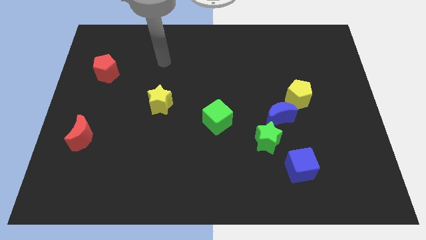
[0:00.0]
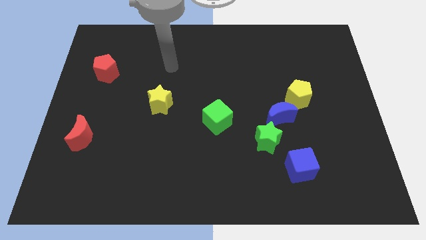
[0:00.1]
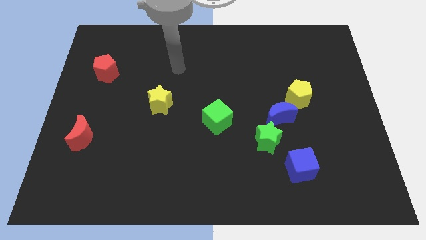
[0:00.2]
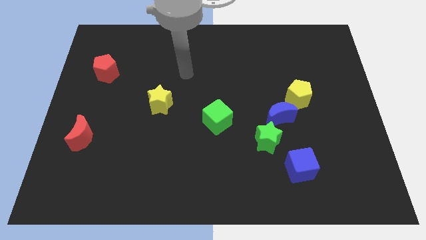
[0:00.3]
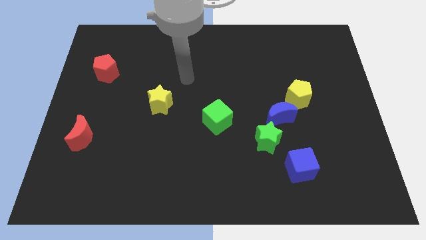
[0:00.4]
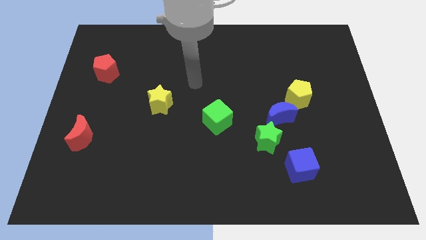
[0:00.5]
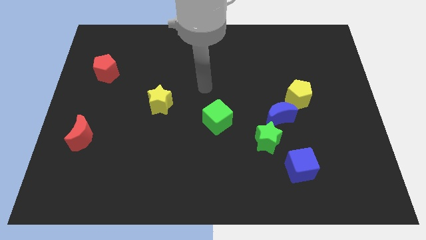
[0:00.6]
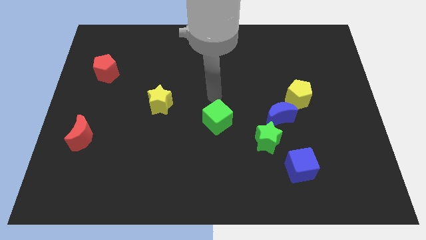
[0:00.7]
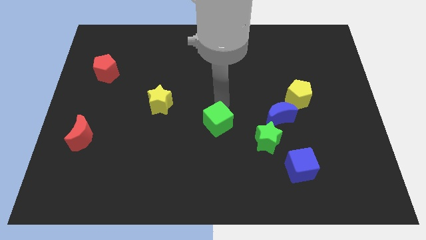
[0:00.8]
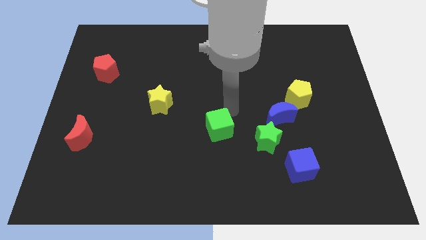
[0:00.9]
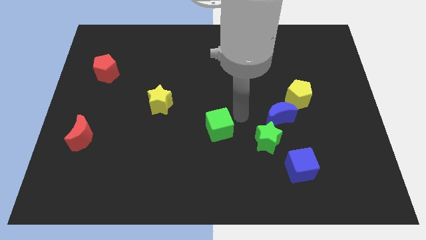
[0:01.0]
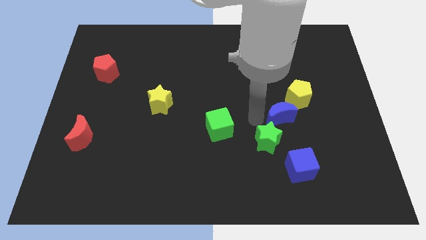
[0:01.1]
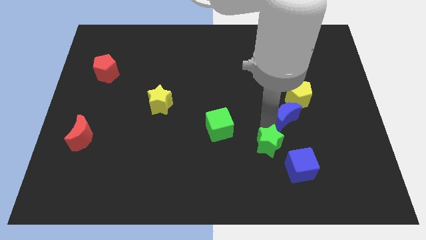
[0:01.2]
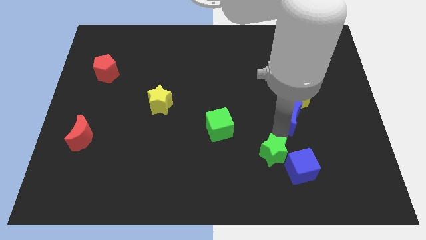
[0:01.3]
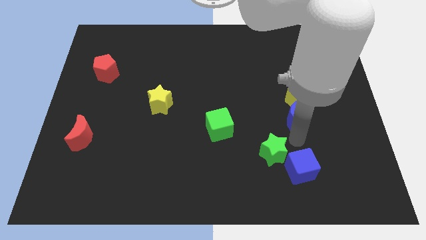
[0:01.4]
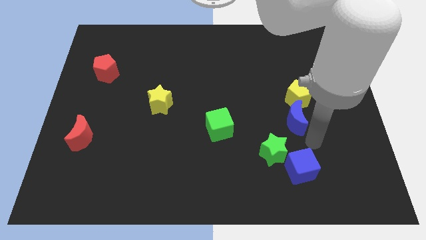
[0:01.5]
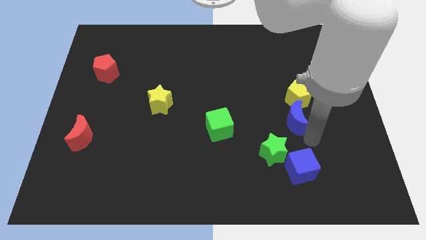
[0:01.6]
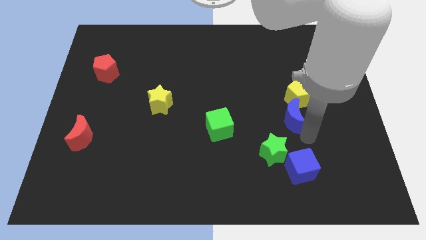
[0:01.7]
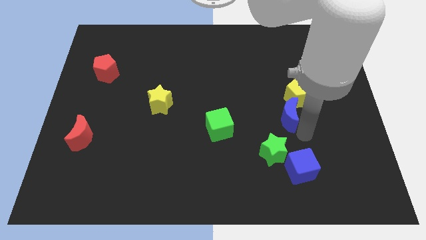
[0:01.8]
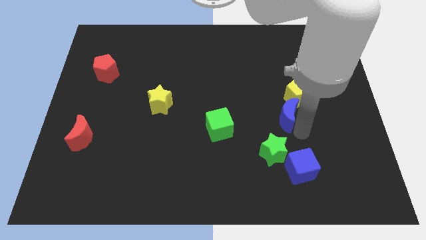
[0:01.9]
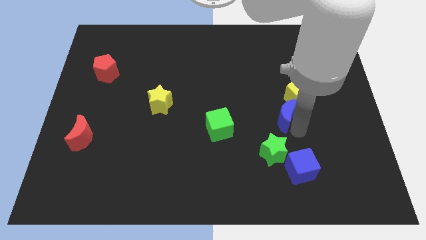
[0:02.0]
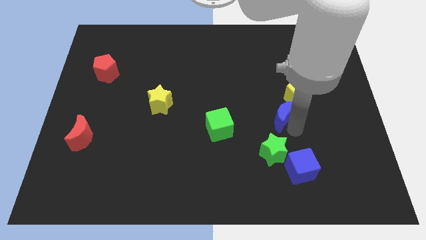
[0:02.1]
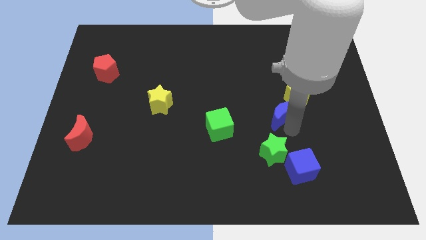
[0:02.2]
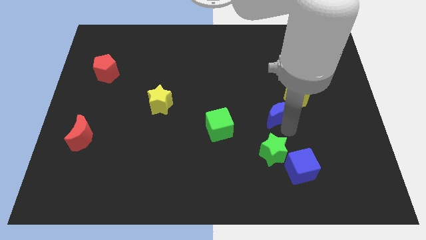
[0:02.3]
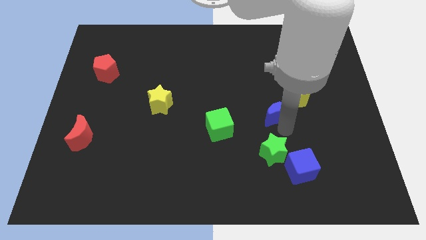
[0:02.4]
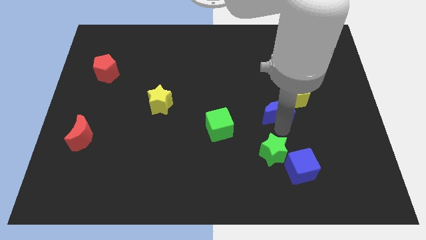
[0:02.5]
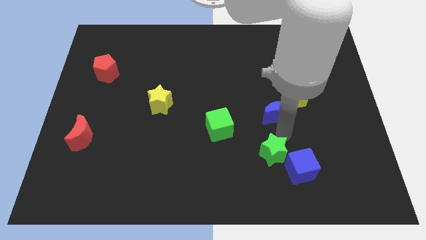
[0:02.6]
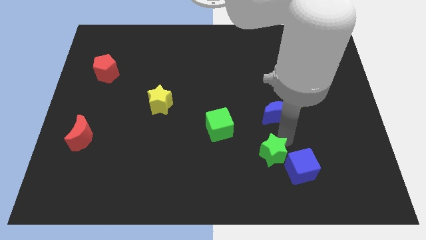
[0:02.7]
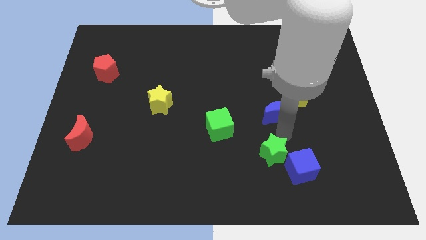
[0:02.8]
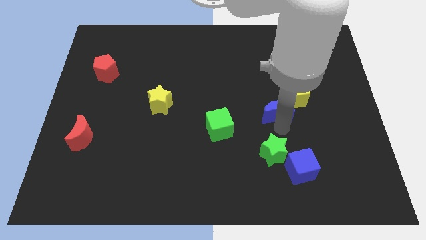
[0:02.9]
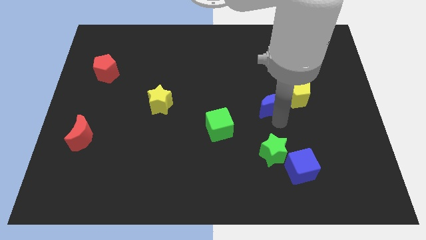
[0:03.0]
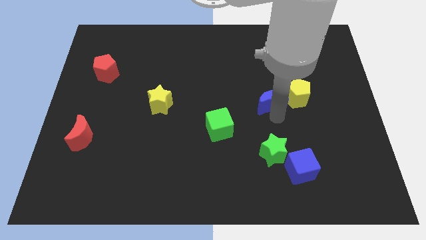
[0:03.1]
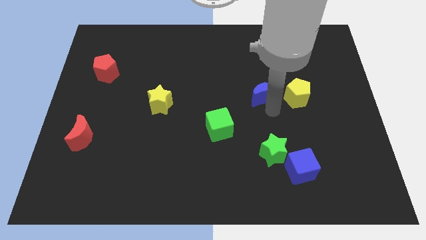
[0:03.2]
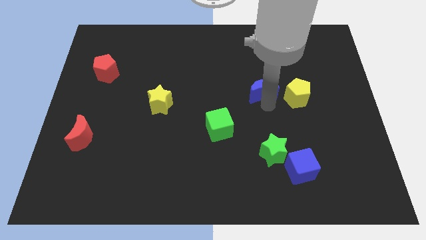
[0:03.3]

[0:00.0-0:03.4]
slide the blue moon upwards a bit

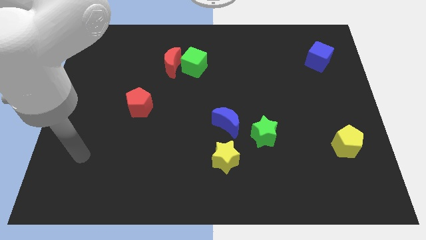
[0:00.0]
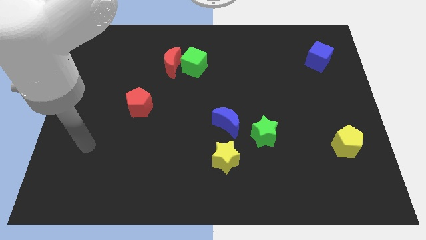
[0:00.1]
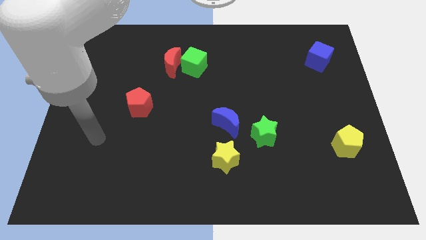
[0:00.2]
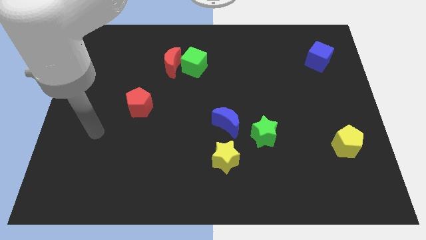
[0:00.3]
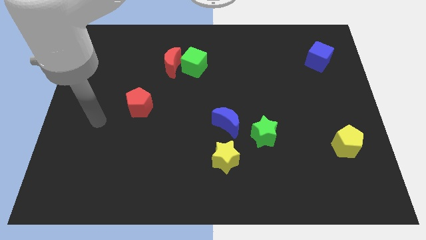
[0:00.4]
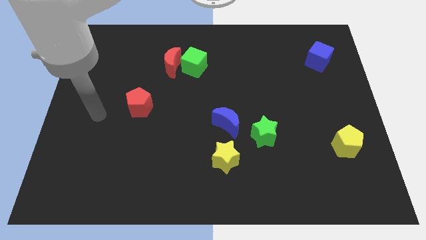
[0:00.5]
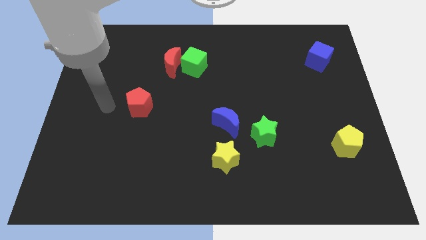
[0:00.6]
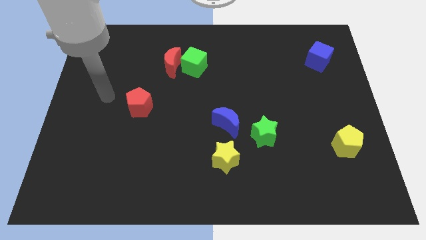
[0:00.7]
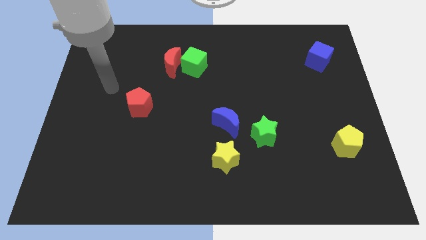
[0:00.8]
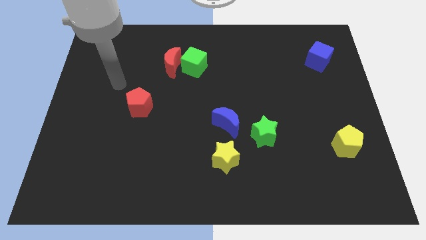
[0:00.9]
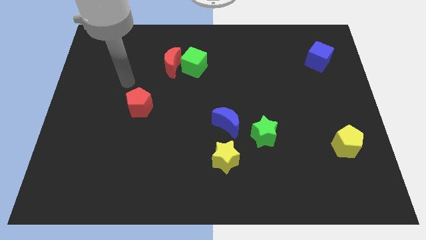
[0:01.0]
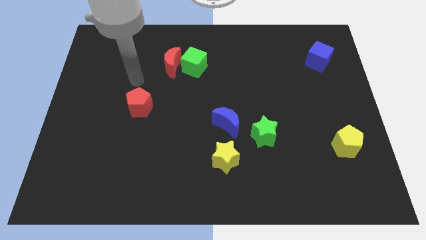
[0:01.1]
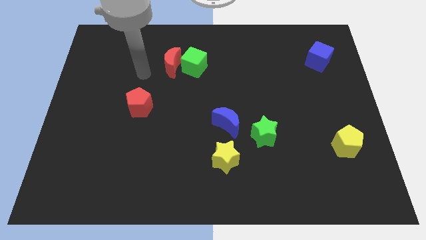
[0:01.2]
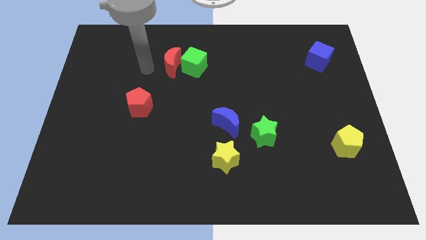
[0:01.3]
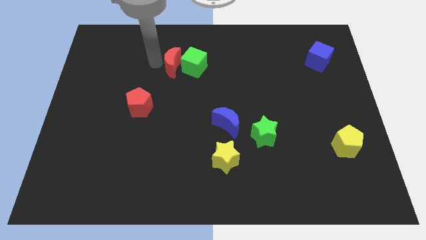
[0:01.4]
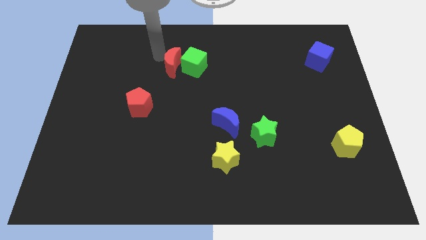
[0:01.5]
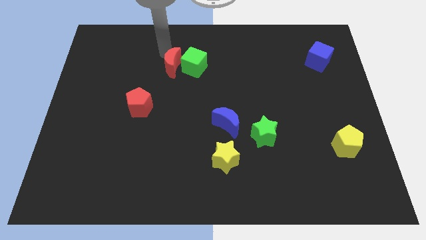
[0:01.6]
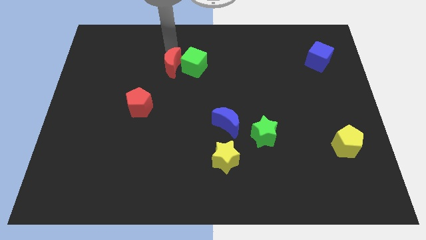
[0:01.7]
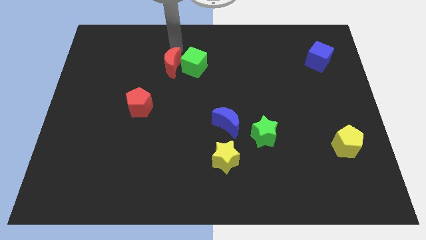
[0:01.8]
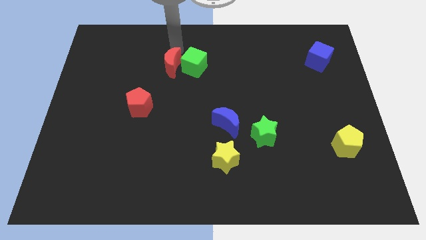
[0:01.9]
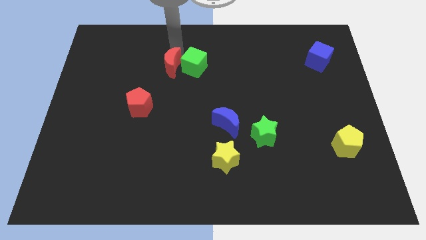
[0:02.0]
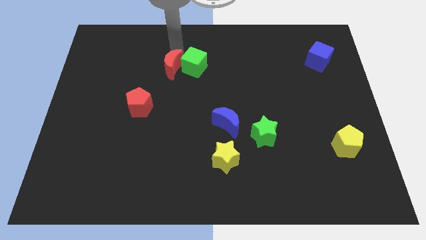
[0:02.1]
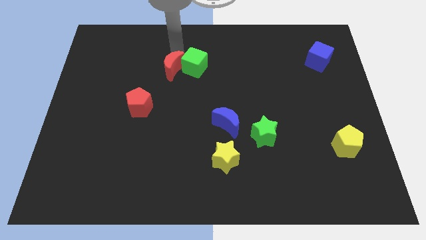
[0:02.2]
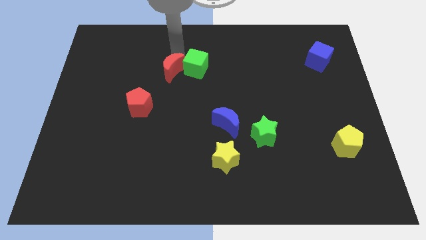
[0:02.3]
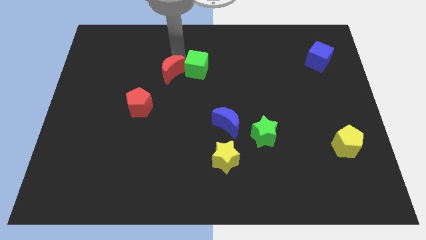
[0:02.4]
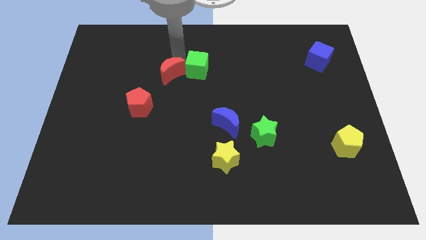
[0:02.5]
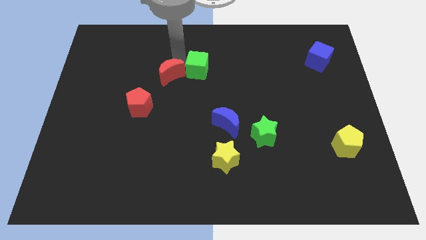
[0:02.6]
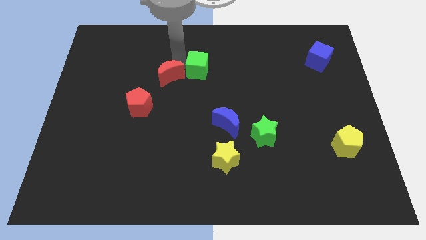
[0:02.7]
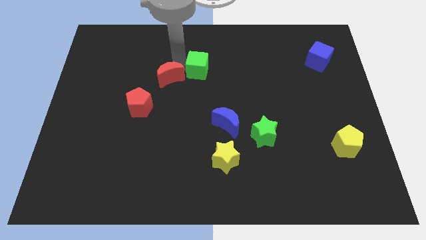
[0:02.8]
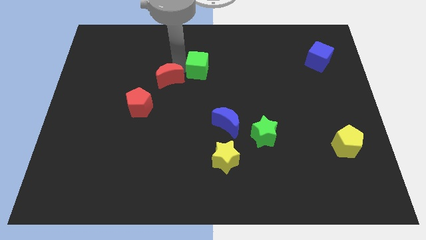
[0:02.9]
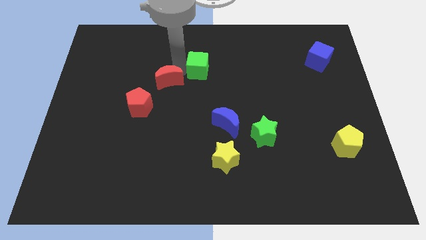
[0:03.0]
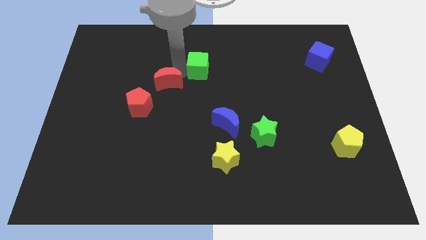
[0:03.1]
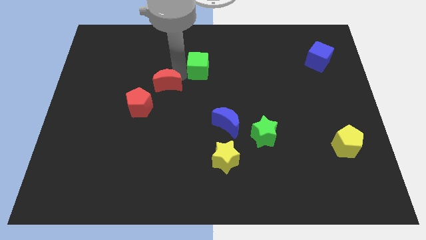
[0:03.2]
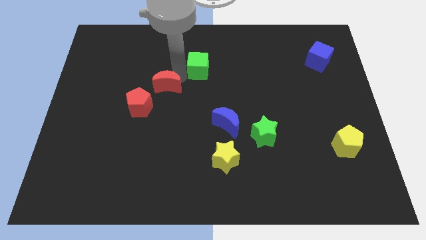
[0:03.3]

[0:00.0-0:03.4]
slide the red moon downwards a little bit

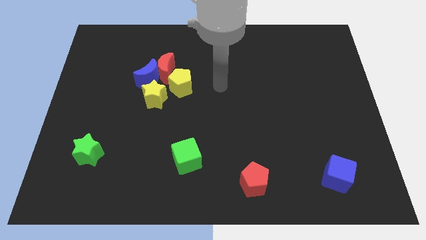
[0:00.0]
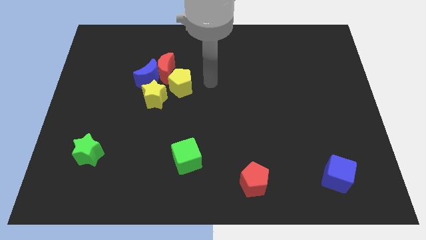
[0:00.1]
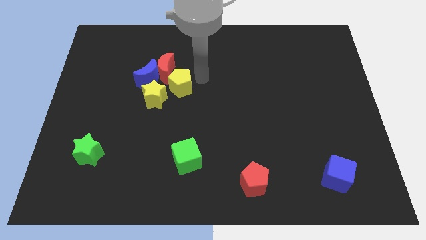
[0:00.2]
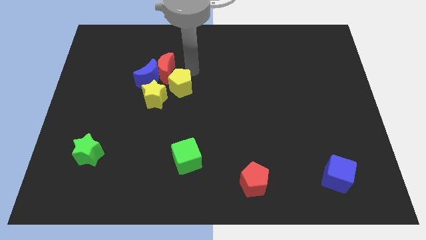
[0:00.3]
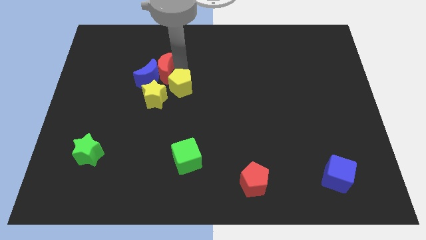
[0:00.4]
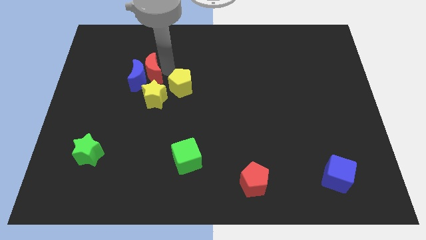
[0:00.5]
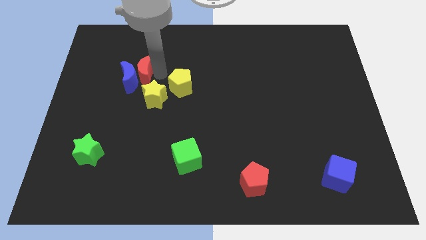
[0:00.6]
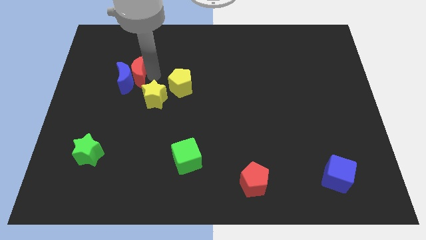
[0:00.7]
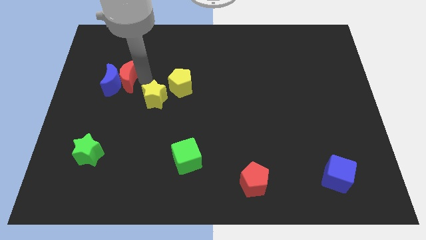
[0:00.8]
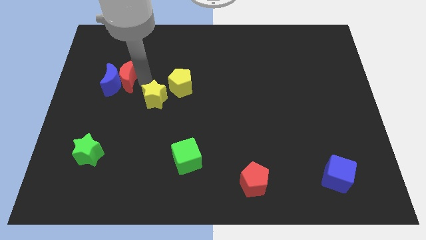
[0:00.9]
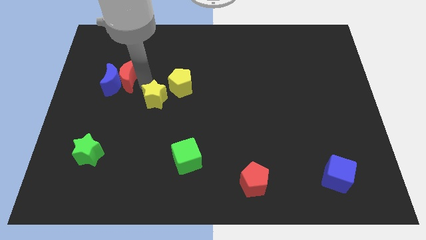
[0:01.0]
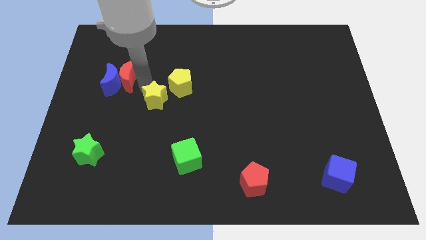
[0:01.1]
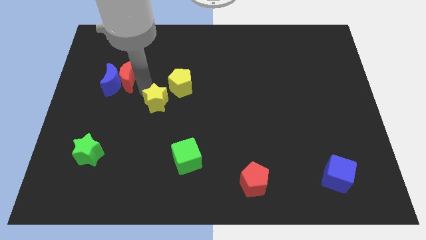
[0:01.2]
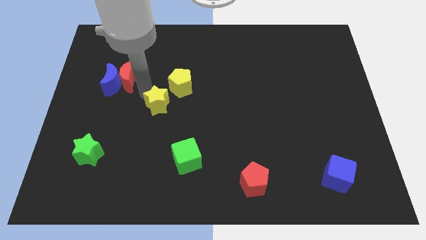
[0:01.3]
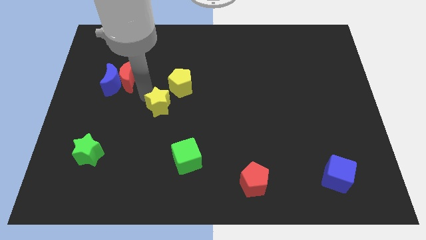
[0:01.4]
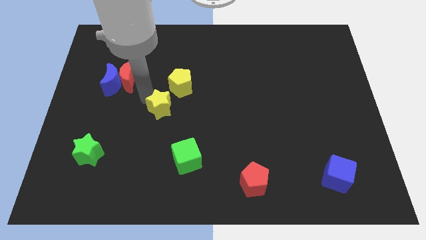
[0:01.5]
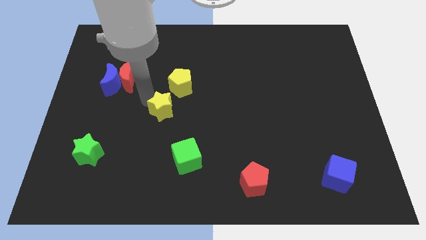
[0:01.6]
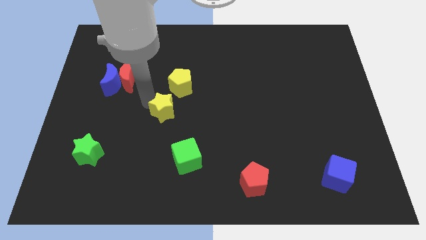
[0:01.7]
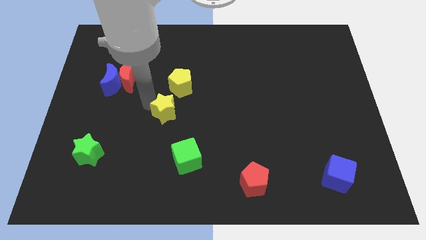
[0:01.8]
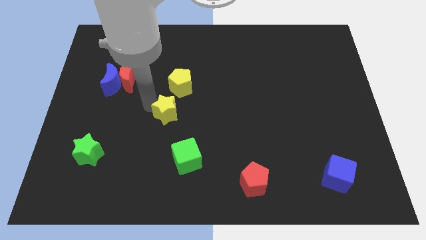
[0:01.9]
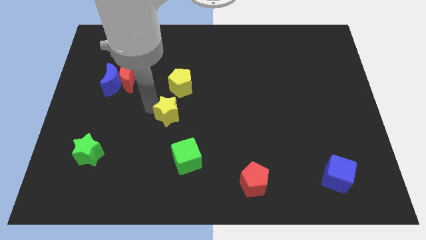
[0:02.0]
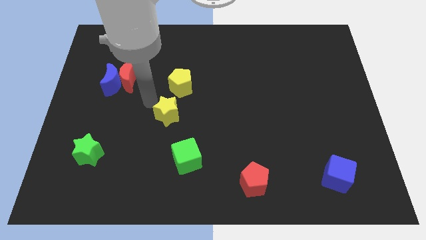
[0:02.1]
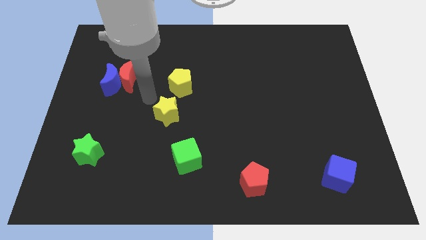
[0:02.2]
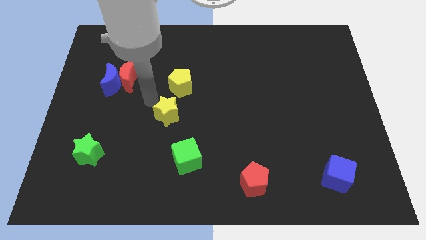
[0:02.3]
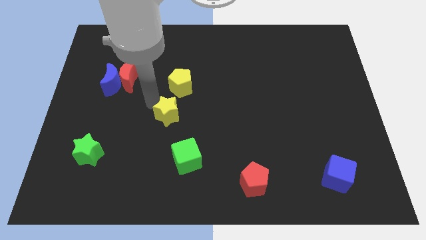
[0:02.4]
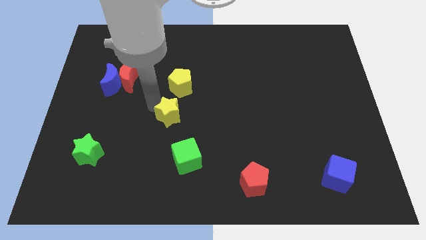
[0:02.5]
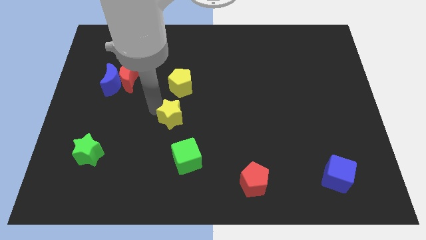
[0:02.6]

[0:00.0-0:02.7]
move the yellow star a bit diagonally downwards and right
